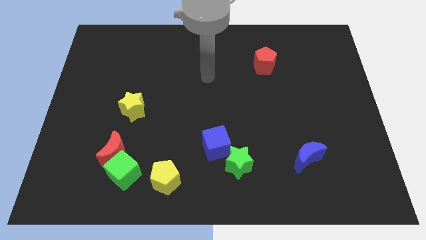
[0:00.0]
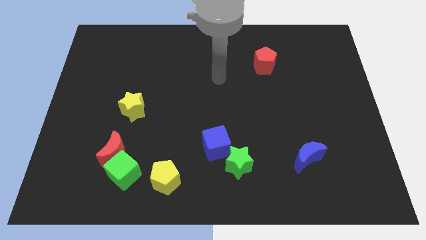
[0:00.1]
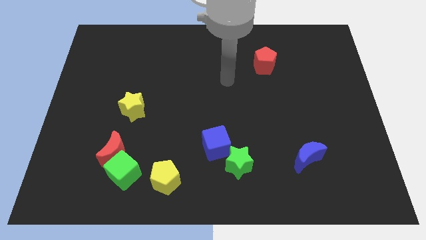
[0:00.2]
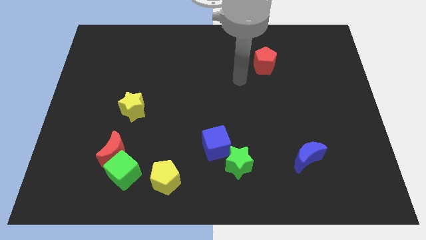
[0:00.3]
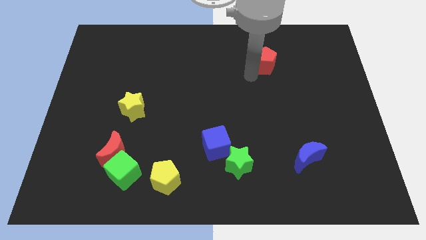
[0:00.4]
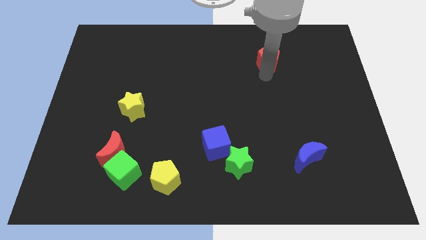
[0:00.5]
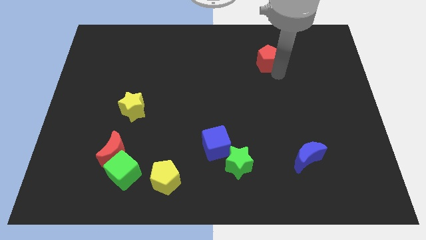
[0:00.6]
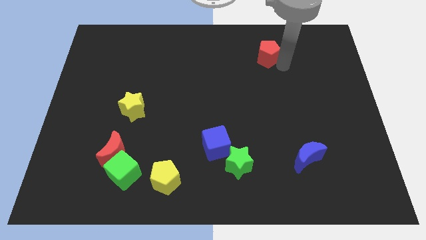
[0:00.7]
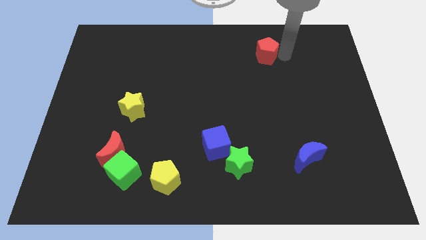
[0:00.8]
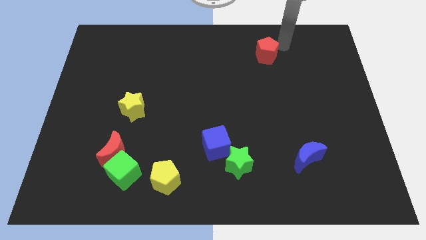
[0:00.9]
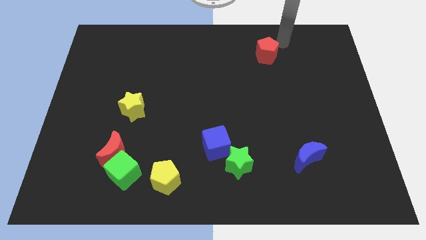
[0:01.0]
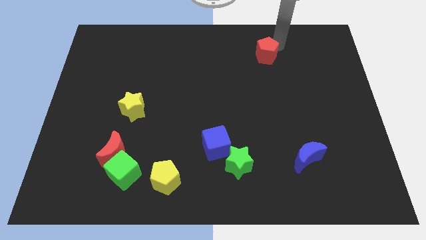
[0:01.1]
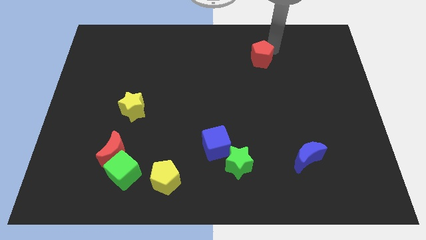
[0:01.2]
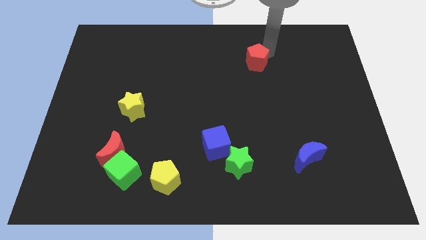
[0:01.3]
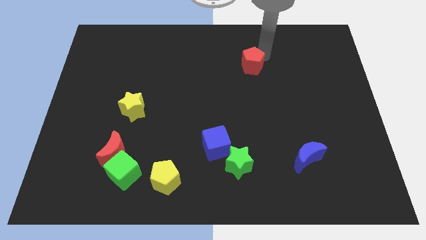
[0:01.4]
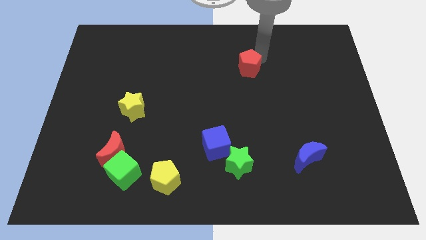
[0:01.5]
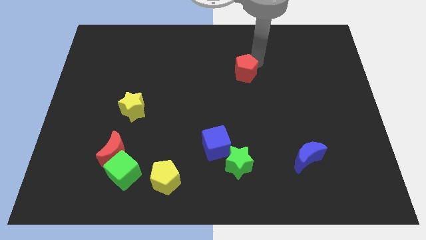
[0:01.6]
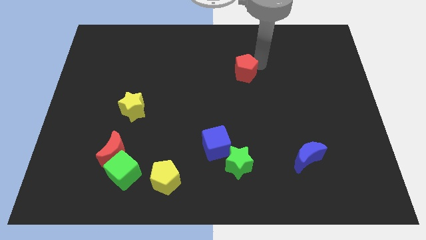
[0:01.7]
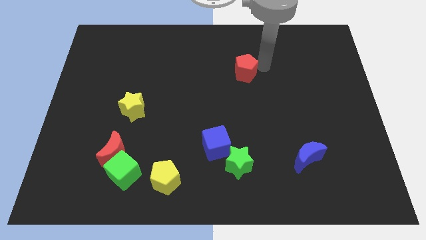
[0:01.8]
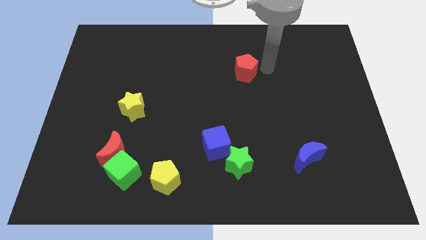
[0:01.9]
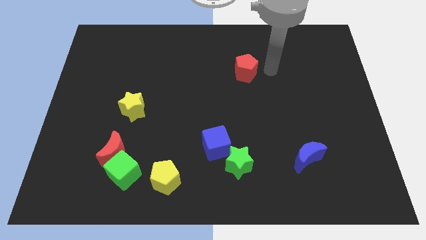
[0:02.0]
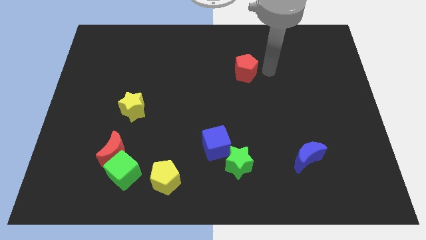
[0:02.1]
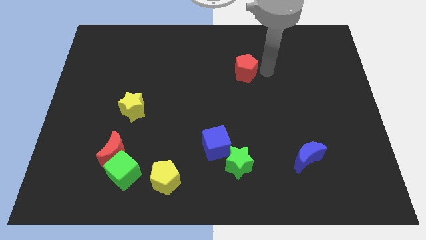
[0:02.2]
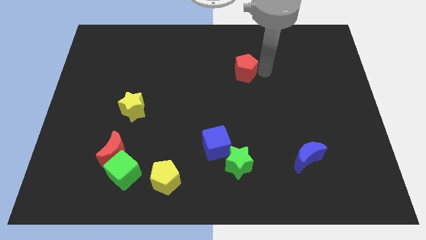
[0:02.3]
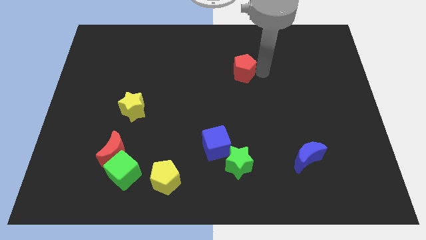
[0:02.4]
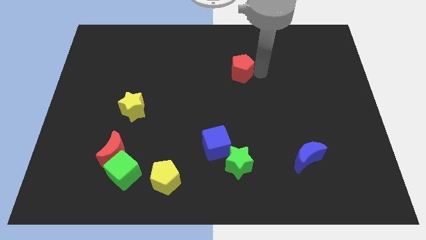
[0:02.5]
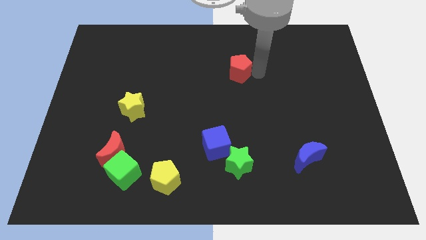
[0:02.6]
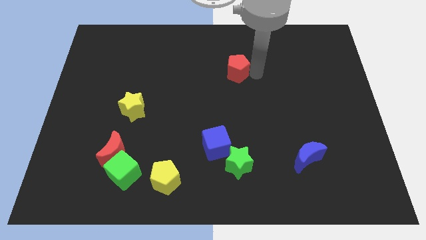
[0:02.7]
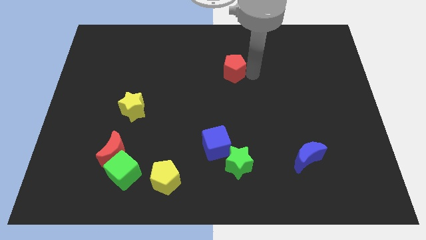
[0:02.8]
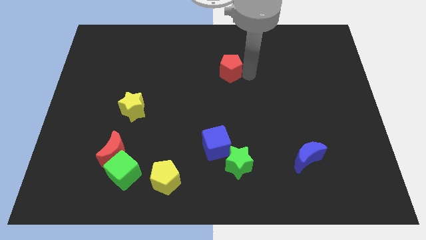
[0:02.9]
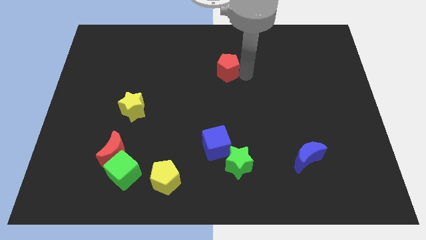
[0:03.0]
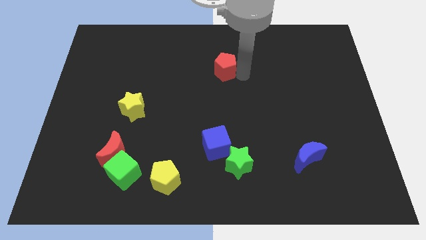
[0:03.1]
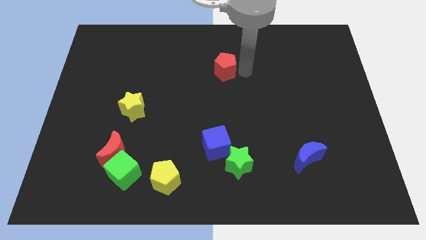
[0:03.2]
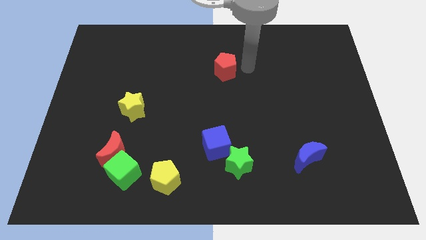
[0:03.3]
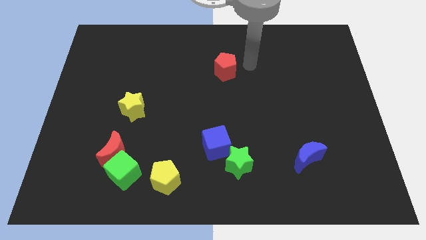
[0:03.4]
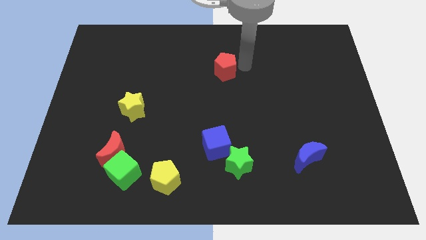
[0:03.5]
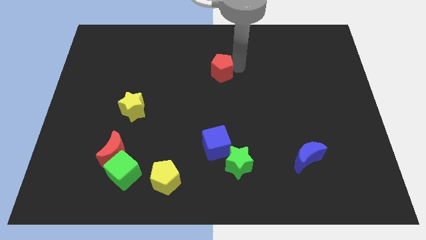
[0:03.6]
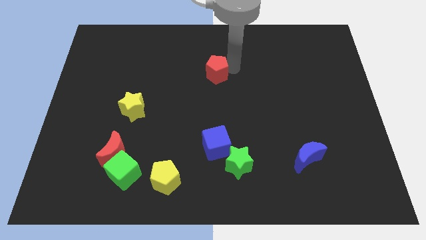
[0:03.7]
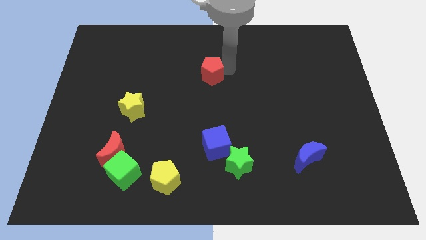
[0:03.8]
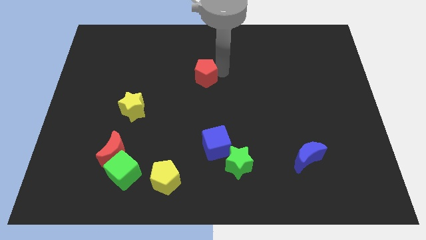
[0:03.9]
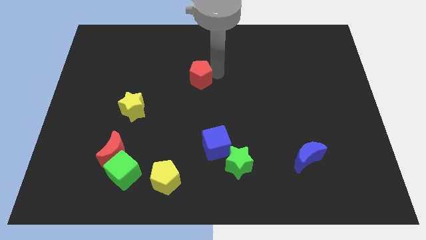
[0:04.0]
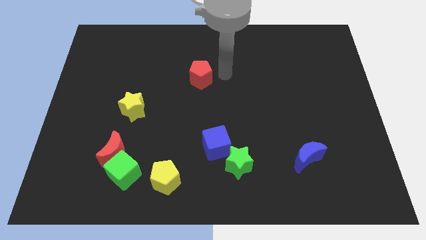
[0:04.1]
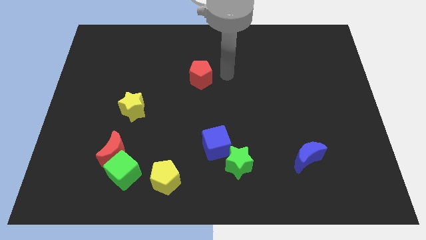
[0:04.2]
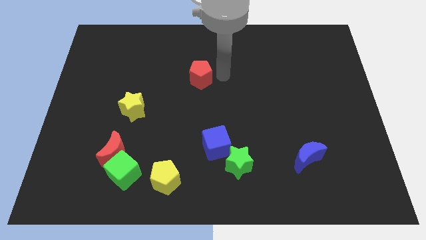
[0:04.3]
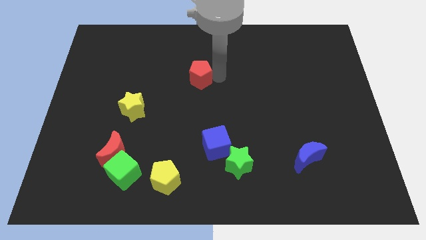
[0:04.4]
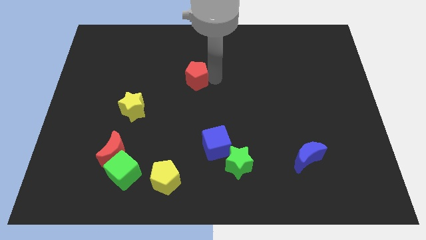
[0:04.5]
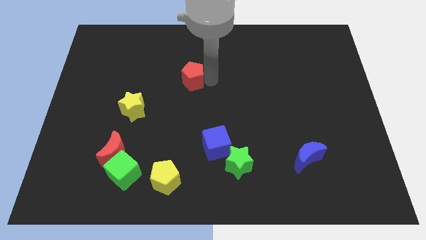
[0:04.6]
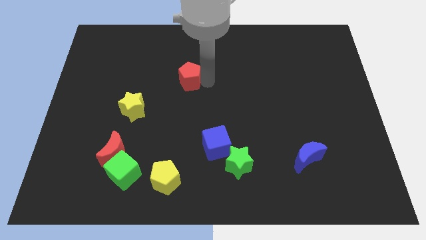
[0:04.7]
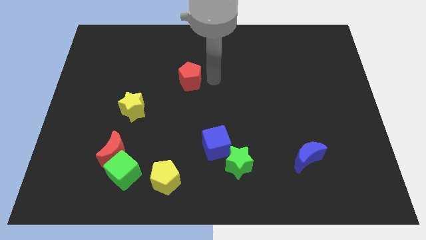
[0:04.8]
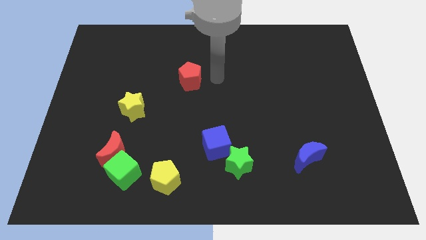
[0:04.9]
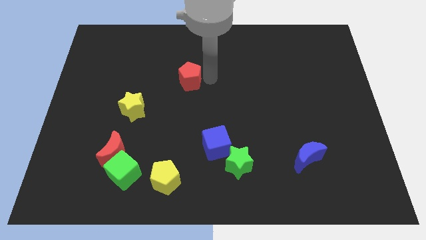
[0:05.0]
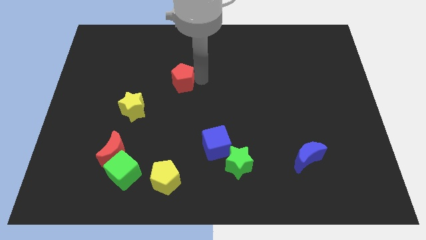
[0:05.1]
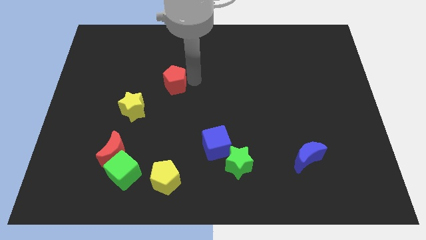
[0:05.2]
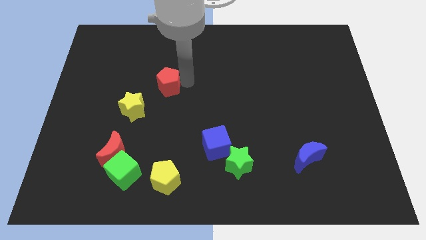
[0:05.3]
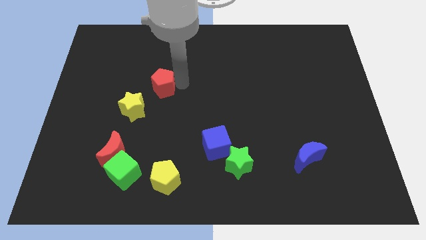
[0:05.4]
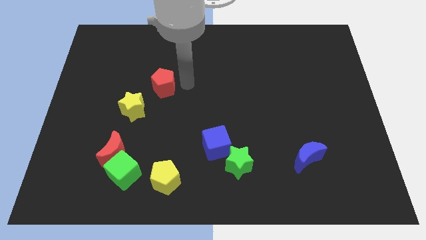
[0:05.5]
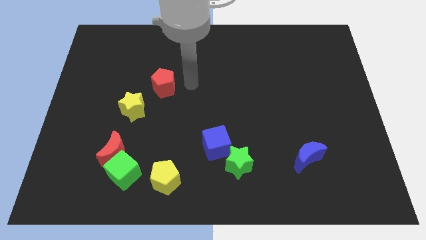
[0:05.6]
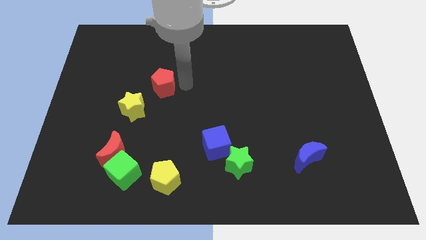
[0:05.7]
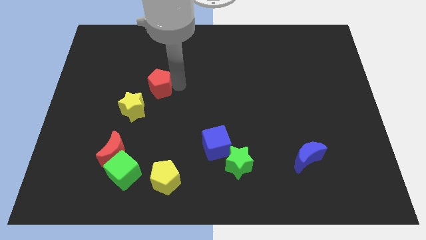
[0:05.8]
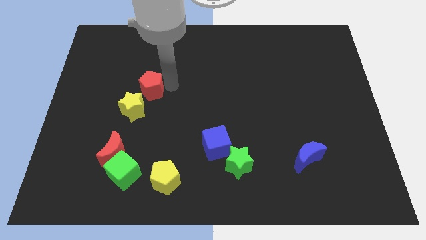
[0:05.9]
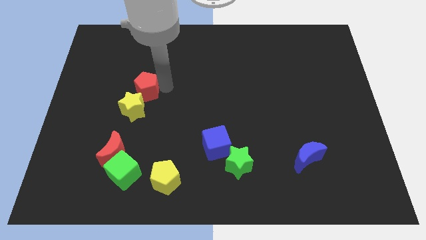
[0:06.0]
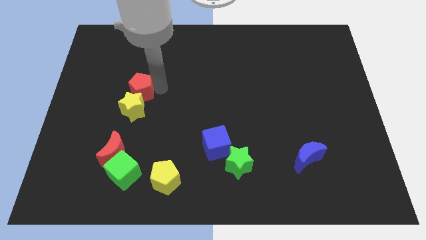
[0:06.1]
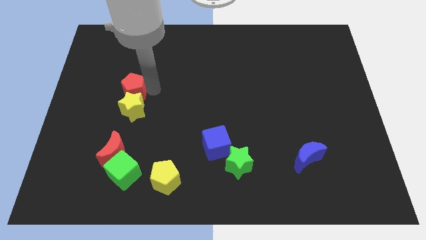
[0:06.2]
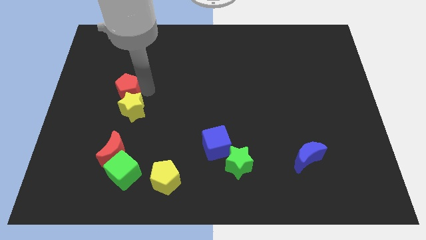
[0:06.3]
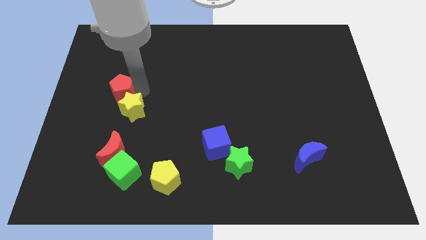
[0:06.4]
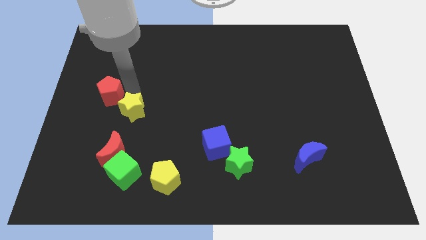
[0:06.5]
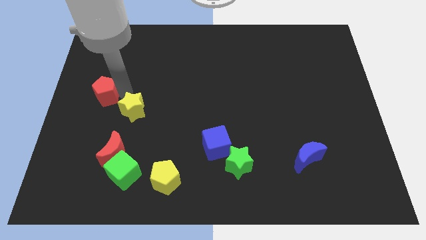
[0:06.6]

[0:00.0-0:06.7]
put the red pentagon to the center left
